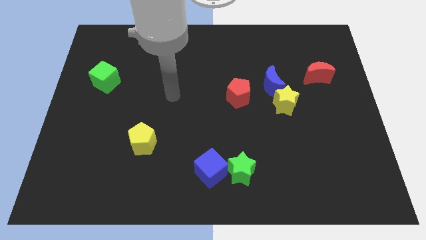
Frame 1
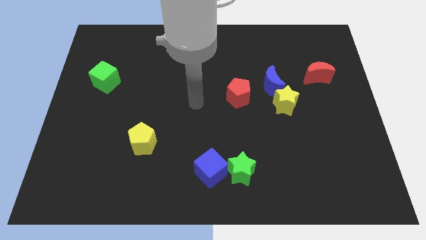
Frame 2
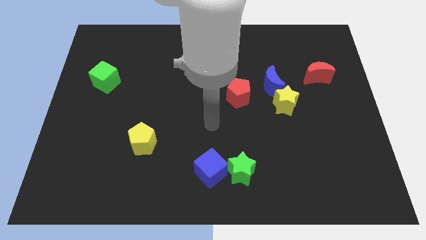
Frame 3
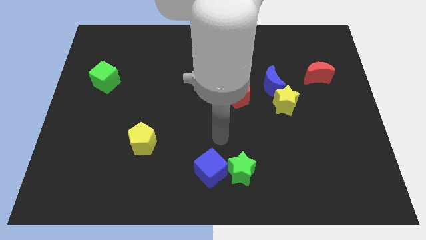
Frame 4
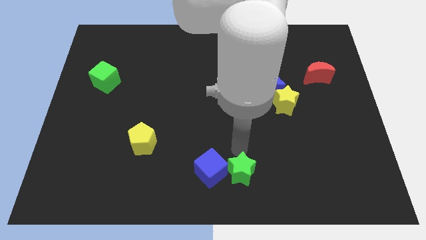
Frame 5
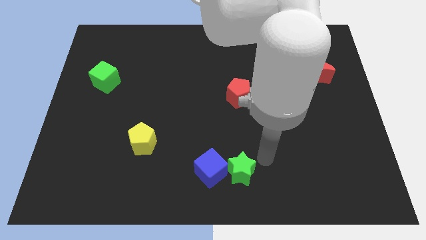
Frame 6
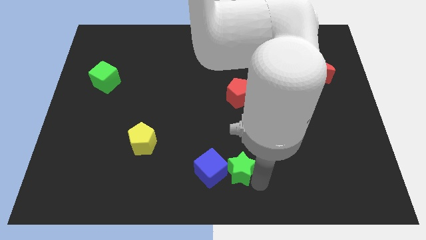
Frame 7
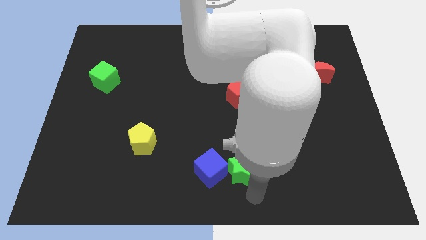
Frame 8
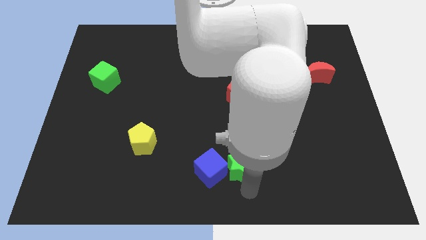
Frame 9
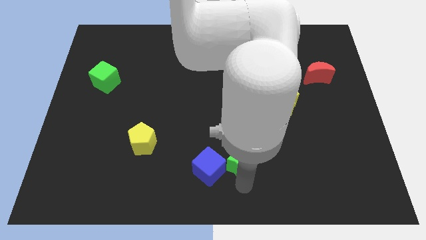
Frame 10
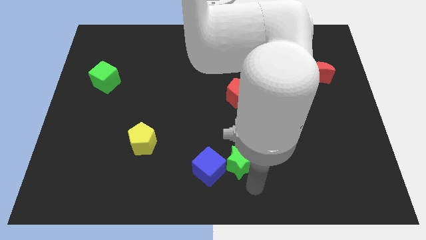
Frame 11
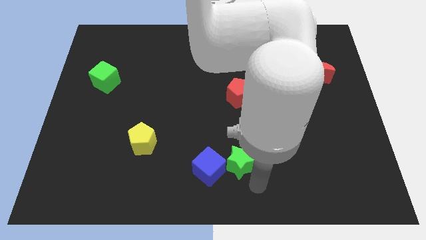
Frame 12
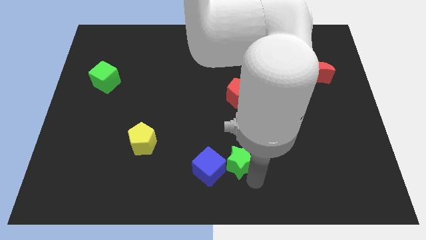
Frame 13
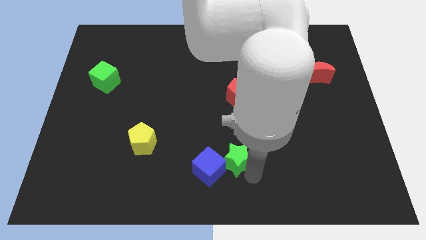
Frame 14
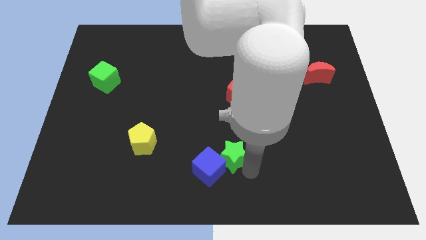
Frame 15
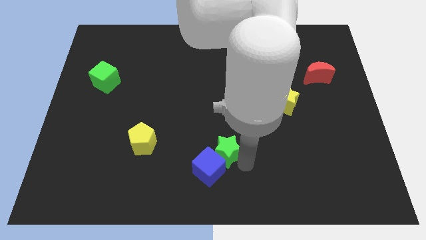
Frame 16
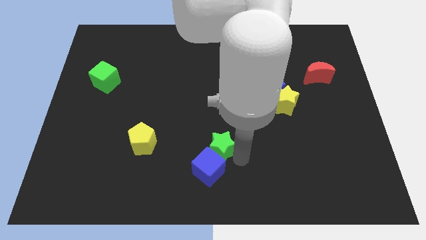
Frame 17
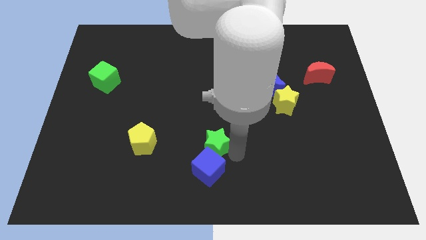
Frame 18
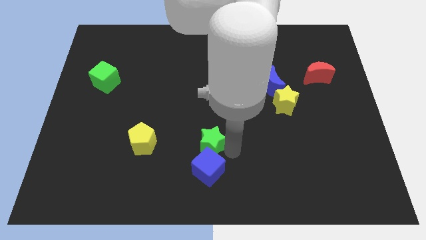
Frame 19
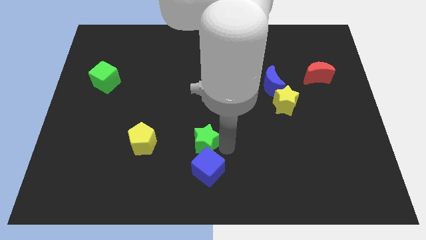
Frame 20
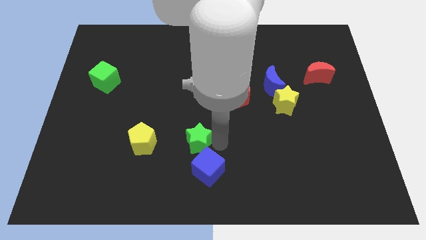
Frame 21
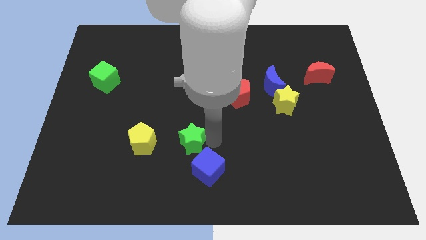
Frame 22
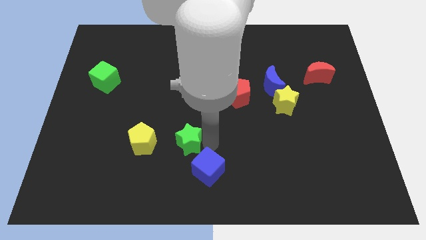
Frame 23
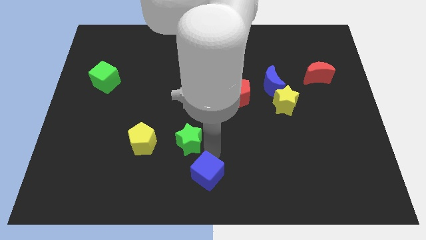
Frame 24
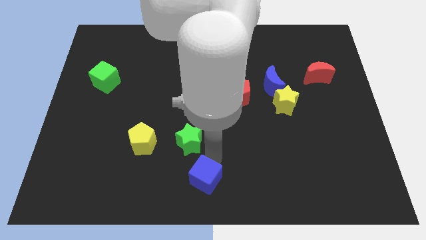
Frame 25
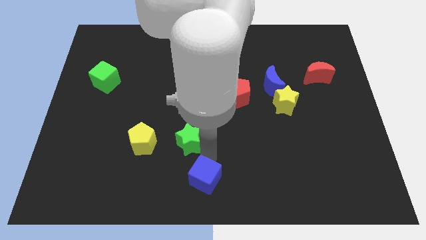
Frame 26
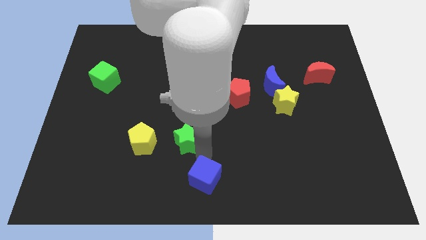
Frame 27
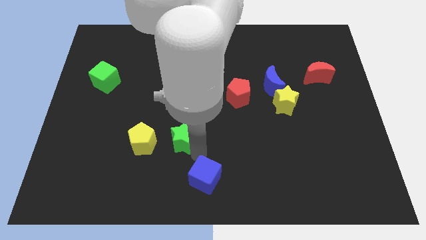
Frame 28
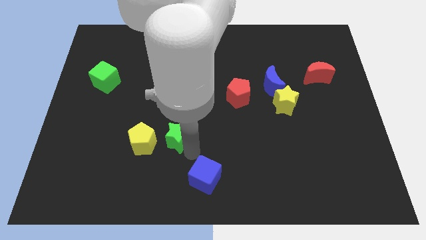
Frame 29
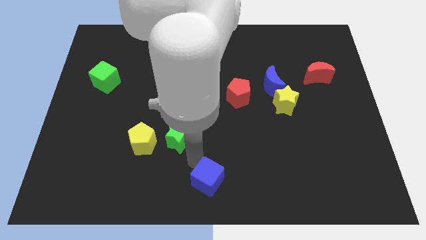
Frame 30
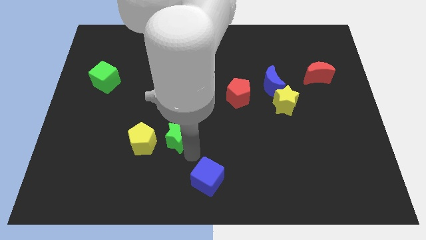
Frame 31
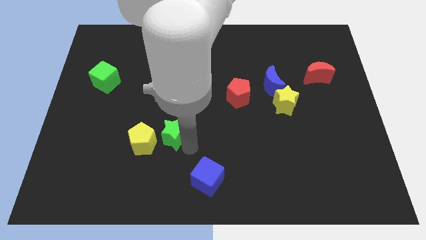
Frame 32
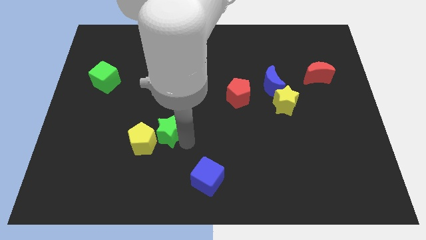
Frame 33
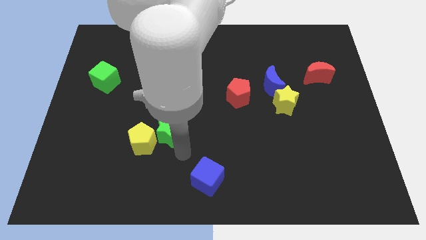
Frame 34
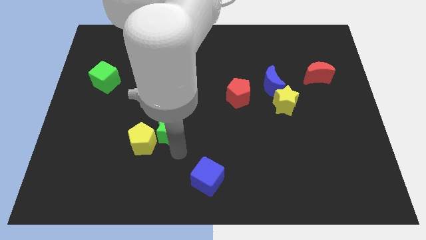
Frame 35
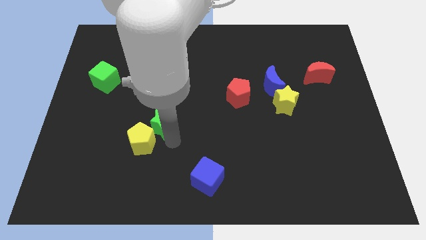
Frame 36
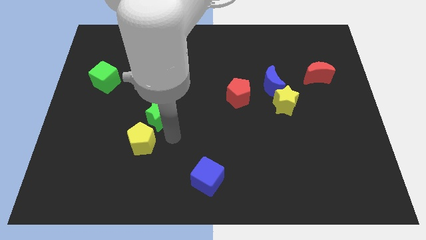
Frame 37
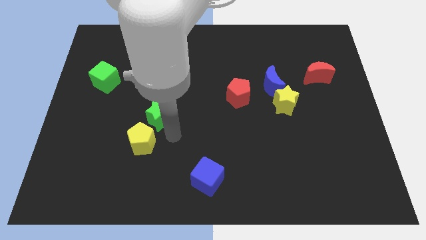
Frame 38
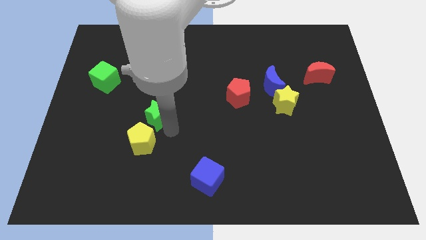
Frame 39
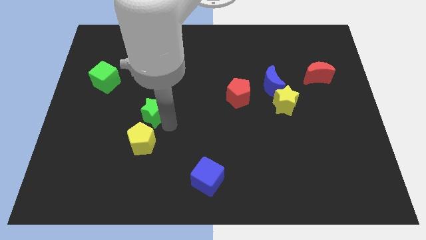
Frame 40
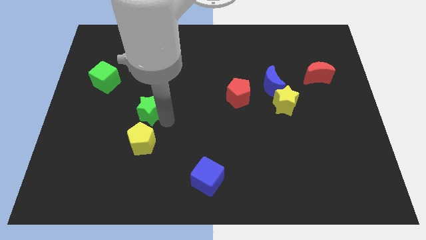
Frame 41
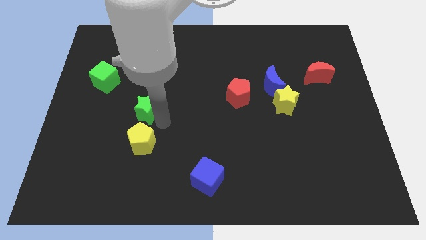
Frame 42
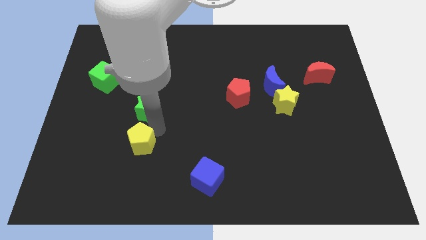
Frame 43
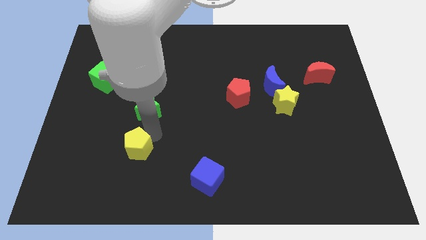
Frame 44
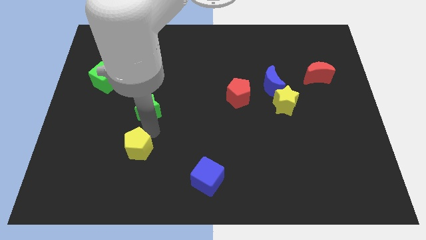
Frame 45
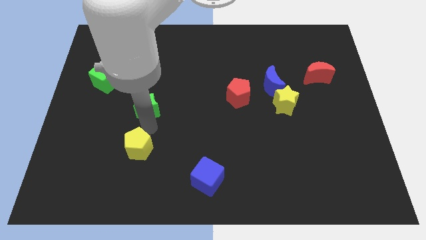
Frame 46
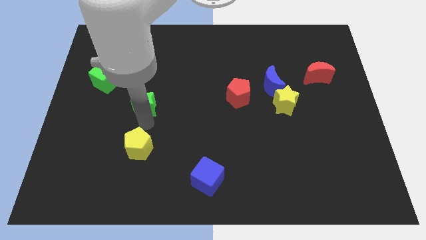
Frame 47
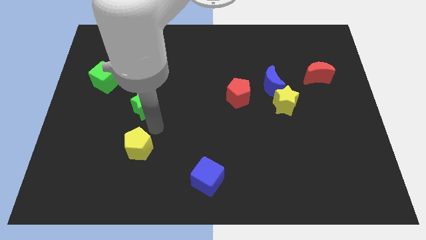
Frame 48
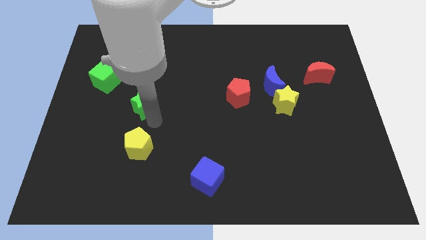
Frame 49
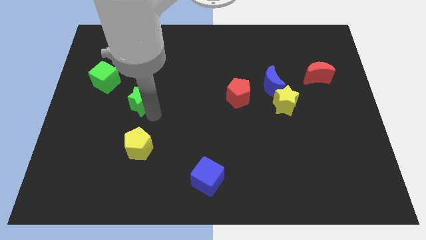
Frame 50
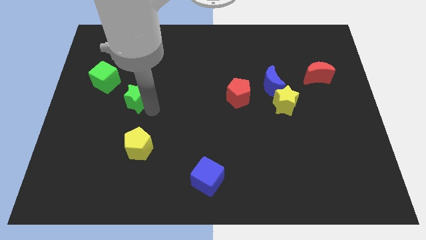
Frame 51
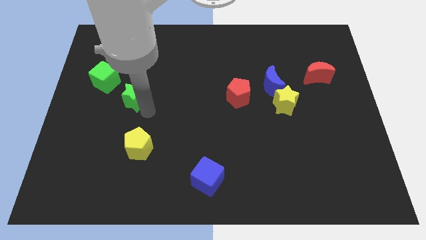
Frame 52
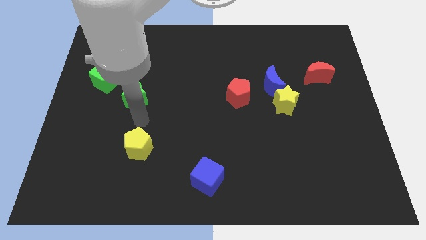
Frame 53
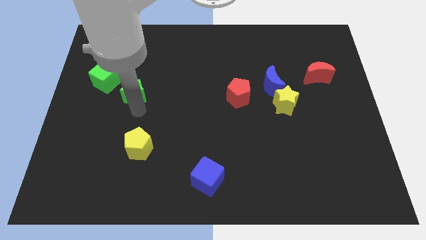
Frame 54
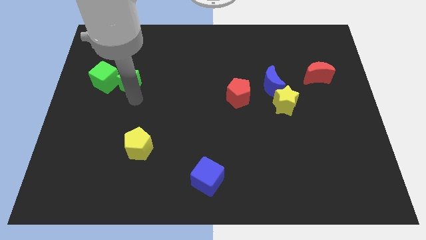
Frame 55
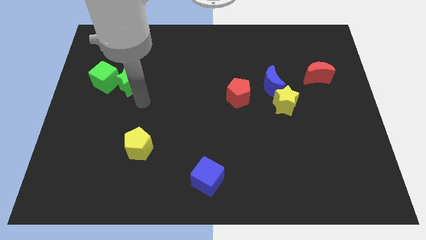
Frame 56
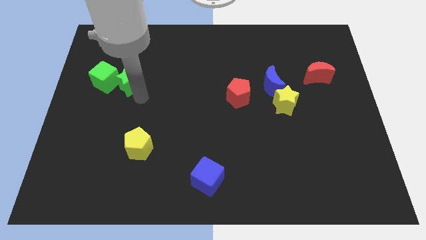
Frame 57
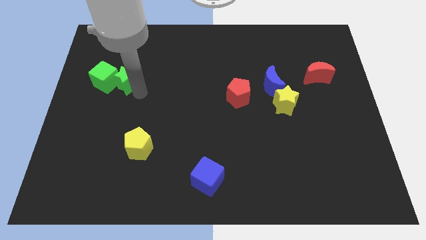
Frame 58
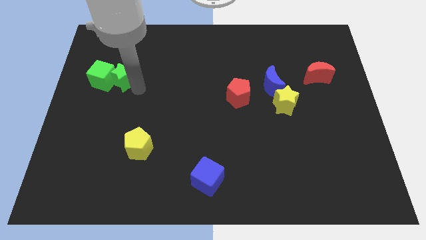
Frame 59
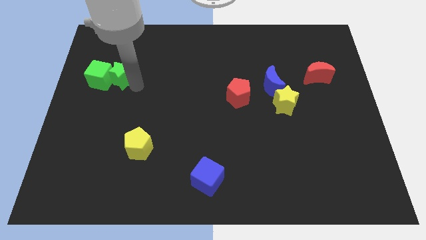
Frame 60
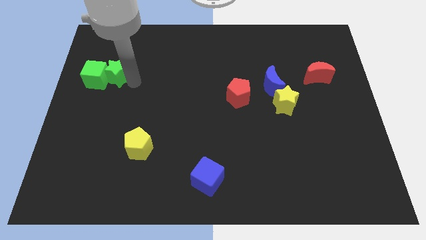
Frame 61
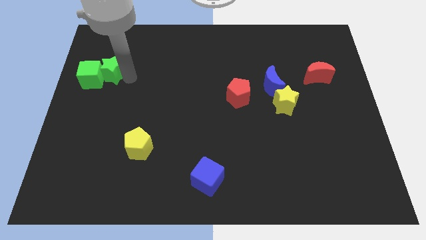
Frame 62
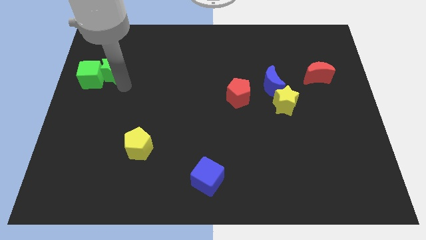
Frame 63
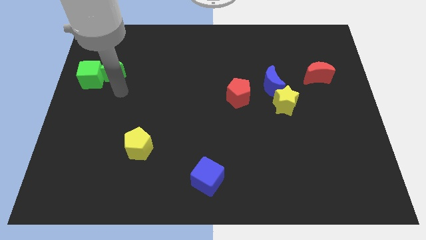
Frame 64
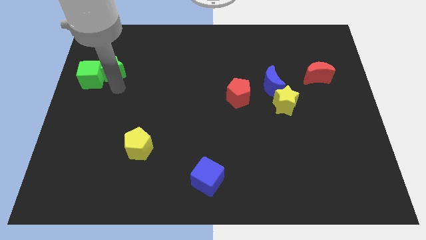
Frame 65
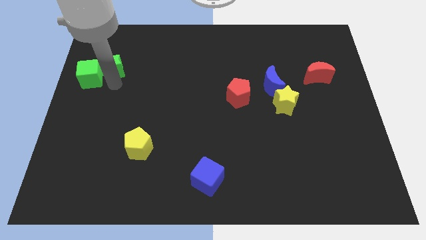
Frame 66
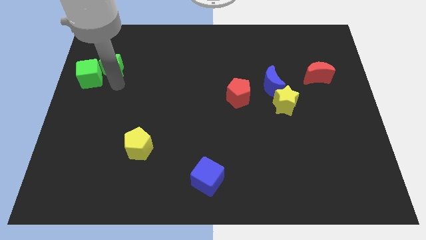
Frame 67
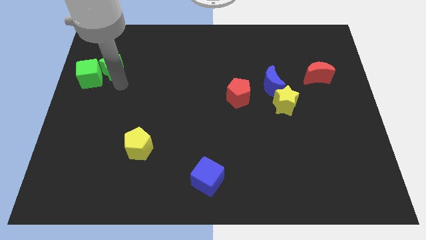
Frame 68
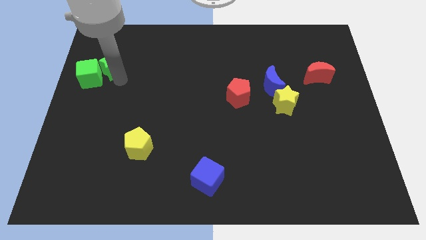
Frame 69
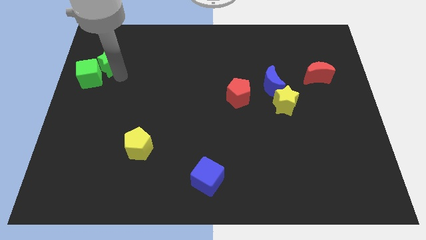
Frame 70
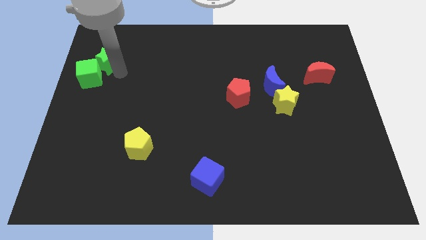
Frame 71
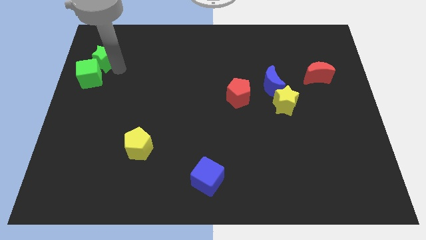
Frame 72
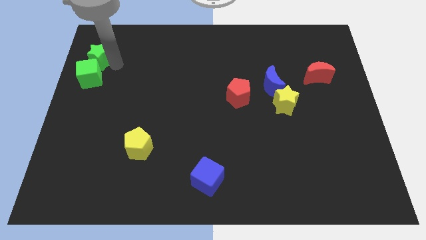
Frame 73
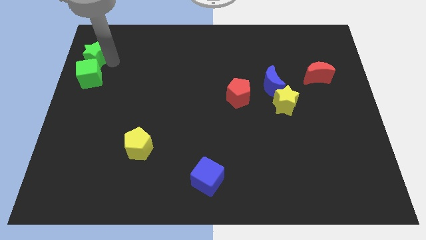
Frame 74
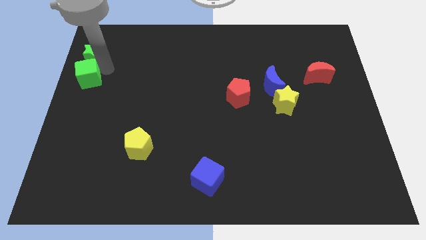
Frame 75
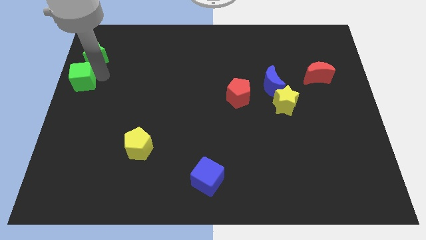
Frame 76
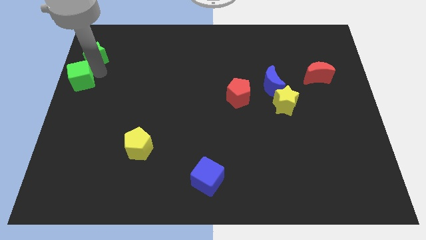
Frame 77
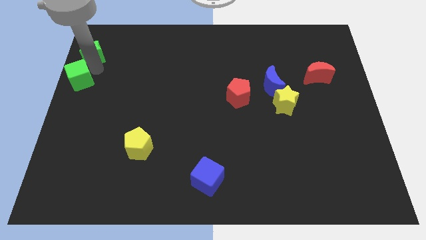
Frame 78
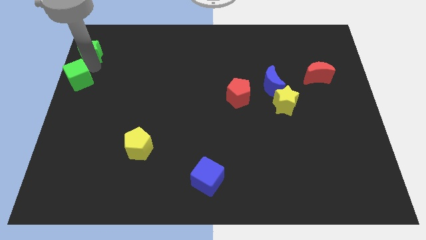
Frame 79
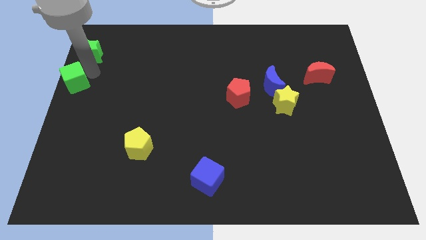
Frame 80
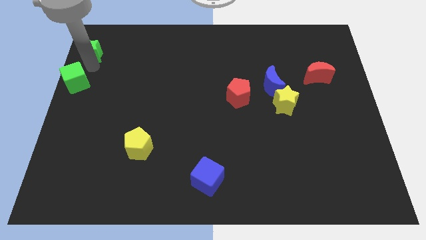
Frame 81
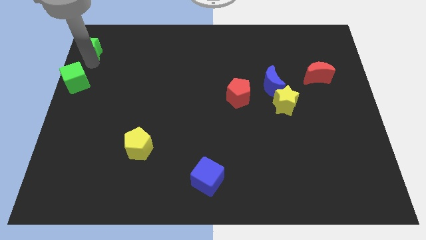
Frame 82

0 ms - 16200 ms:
push the green star to the top left
